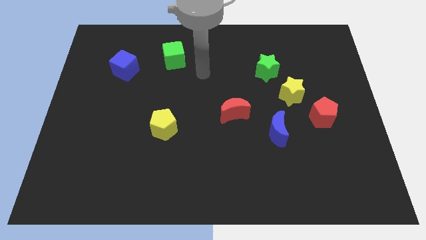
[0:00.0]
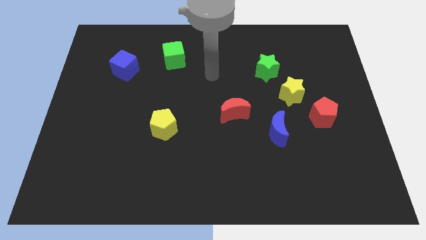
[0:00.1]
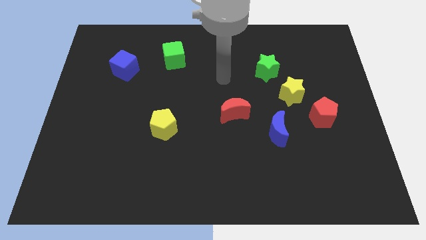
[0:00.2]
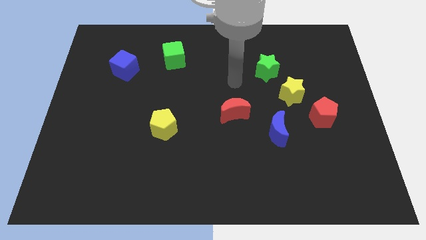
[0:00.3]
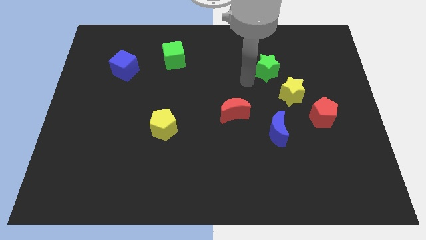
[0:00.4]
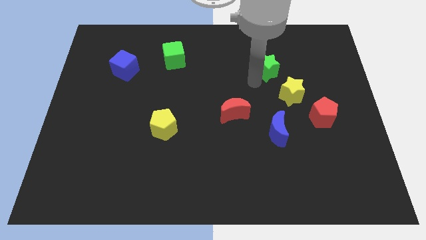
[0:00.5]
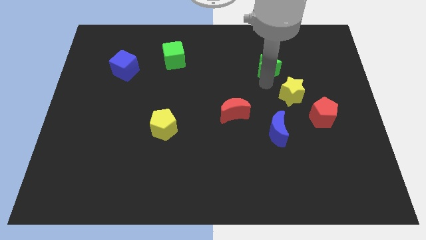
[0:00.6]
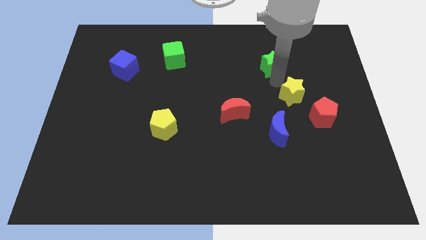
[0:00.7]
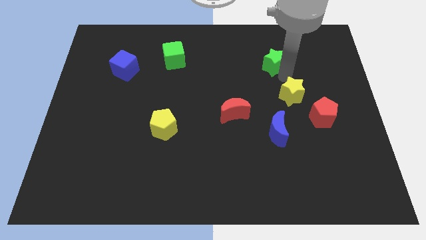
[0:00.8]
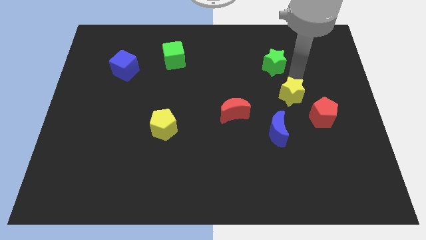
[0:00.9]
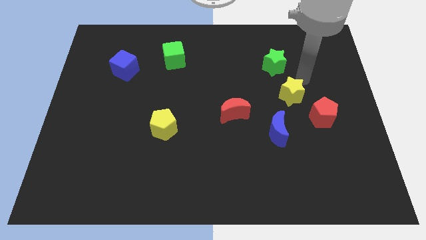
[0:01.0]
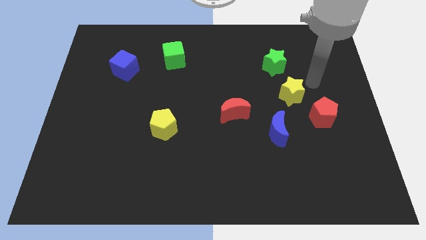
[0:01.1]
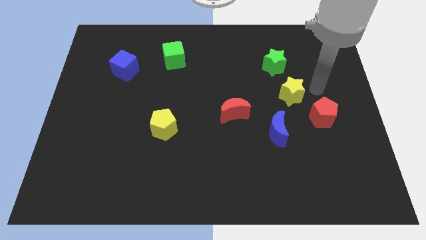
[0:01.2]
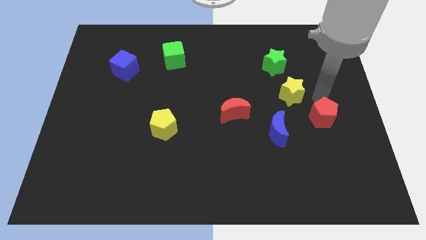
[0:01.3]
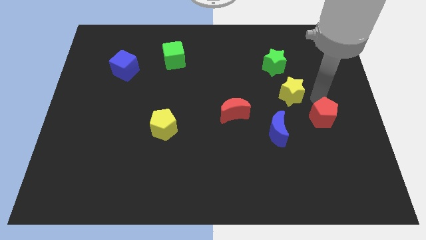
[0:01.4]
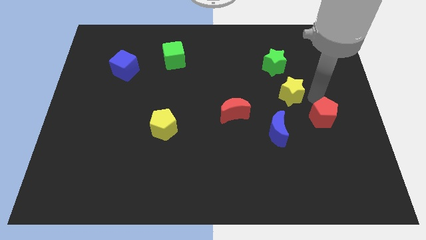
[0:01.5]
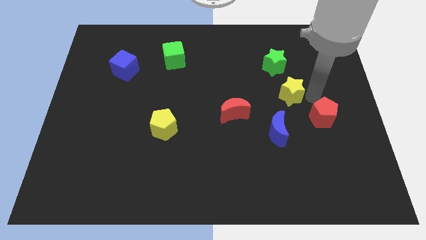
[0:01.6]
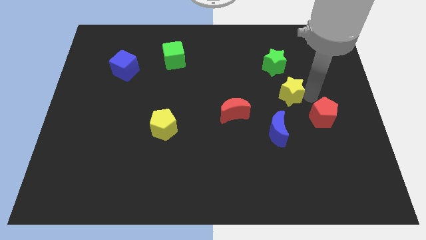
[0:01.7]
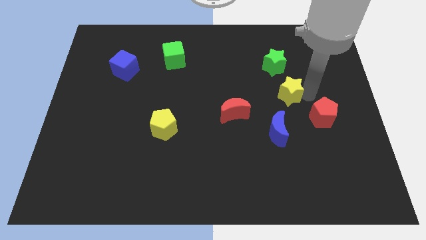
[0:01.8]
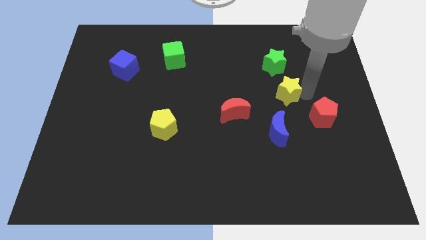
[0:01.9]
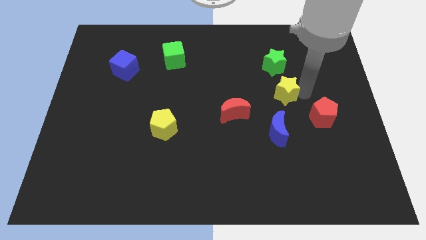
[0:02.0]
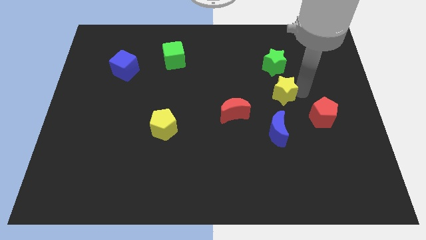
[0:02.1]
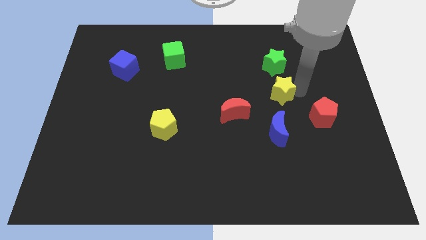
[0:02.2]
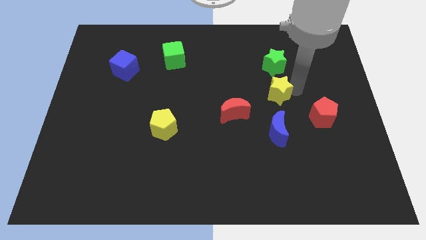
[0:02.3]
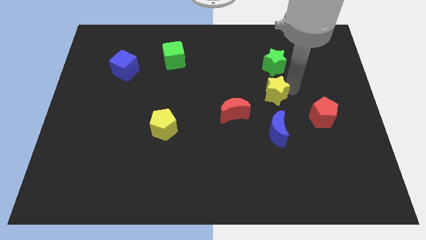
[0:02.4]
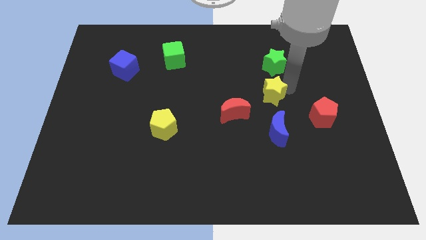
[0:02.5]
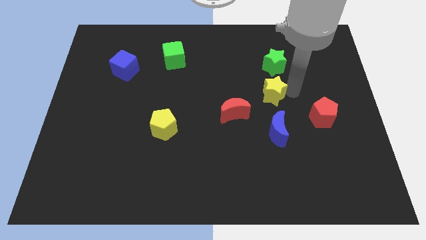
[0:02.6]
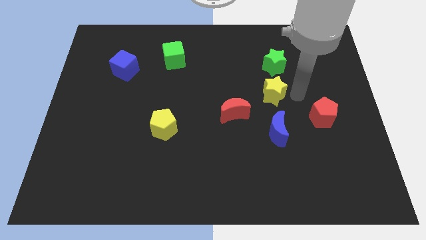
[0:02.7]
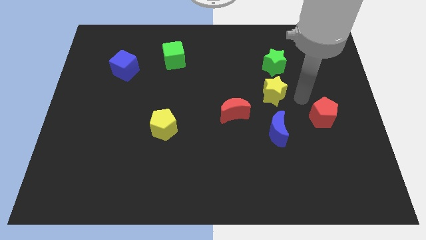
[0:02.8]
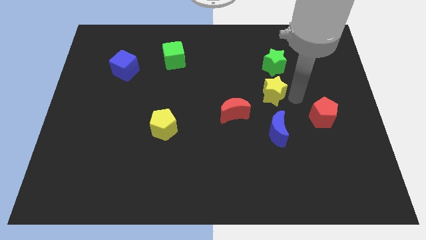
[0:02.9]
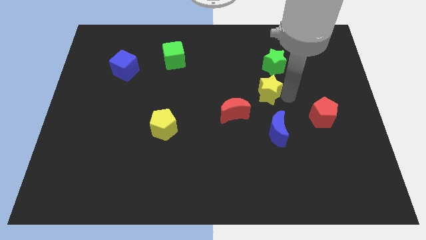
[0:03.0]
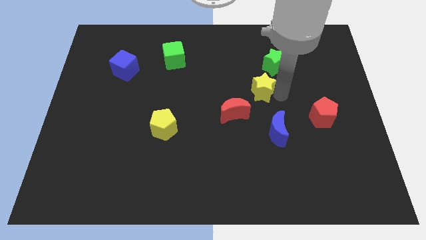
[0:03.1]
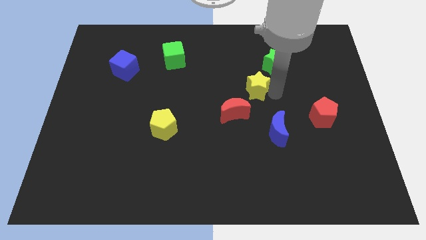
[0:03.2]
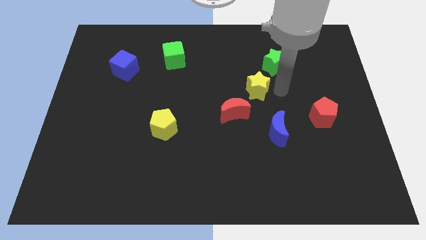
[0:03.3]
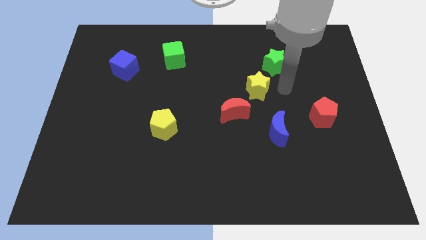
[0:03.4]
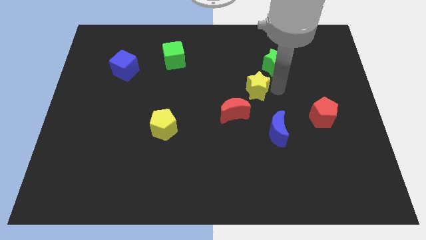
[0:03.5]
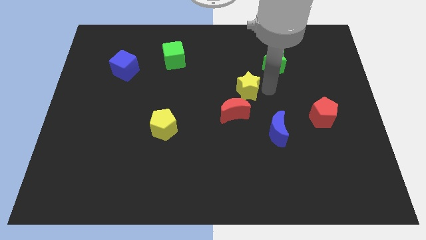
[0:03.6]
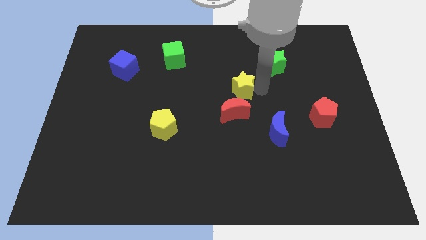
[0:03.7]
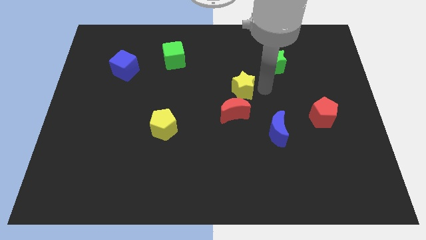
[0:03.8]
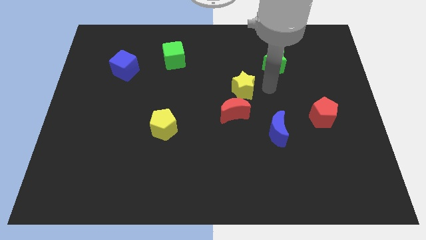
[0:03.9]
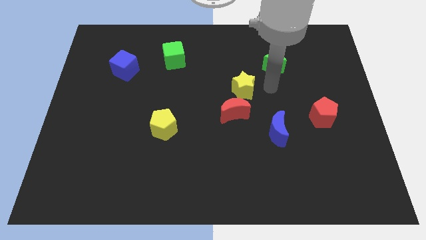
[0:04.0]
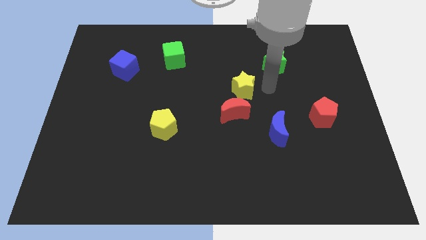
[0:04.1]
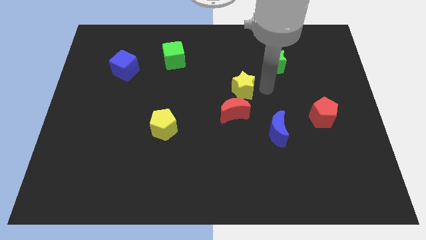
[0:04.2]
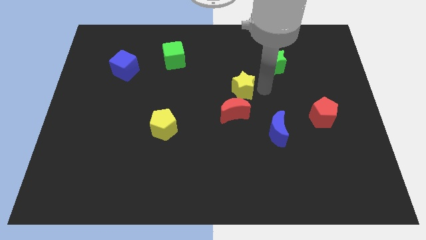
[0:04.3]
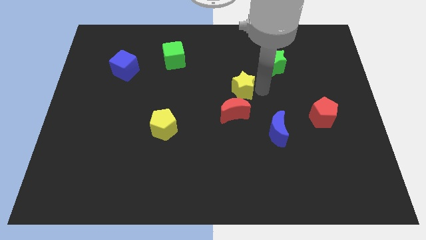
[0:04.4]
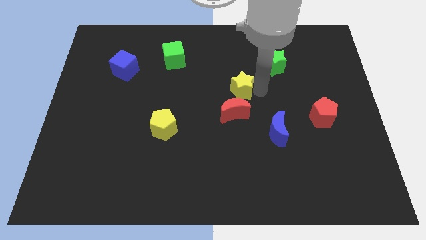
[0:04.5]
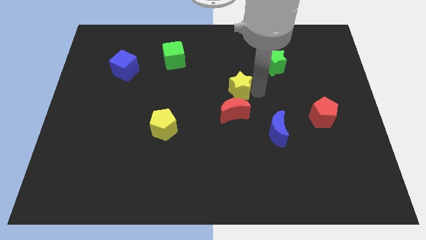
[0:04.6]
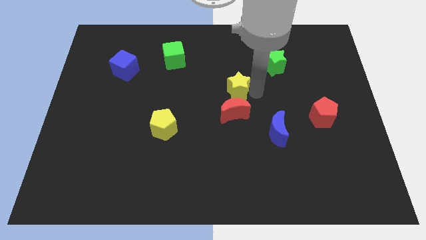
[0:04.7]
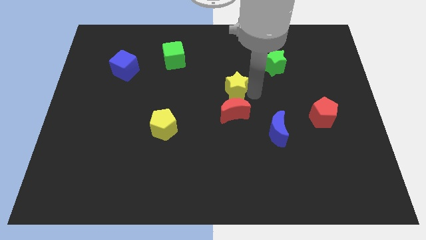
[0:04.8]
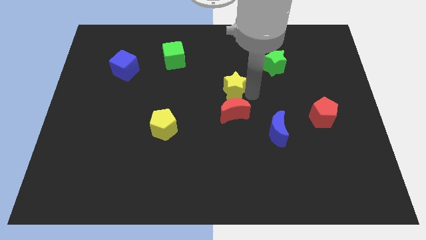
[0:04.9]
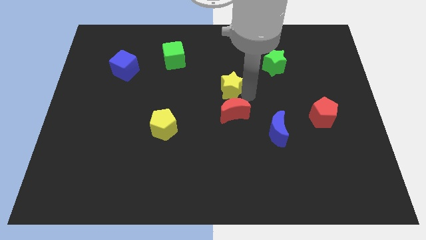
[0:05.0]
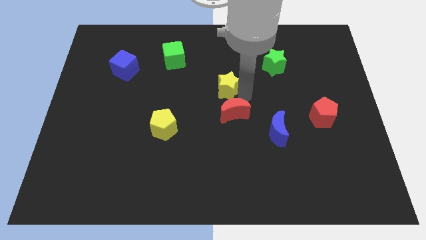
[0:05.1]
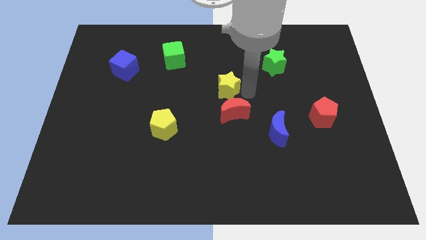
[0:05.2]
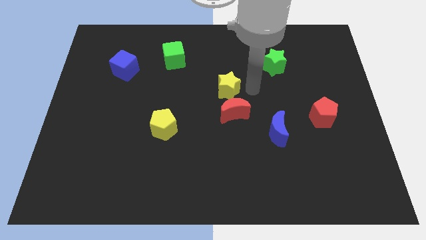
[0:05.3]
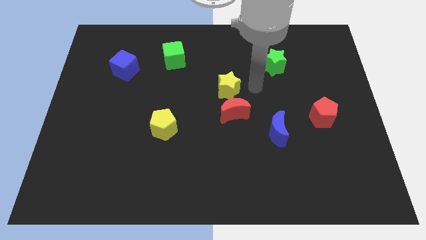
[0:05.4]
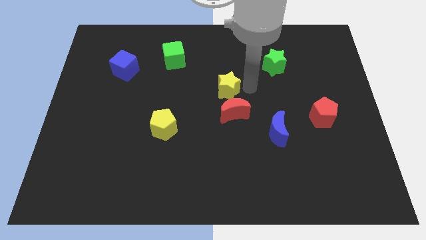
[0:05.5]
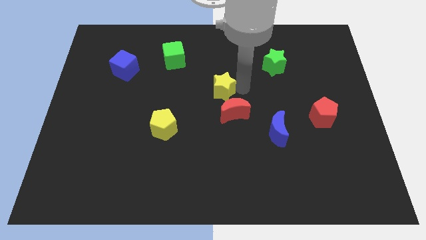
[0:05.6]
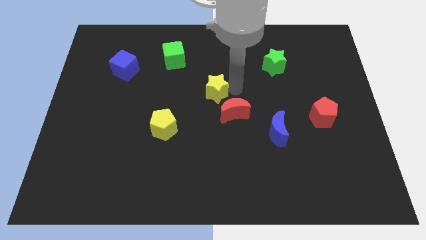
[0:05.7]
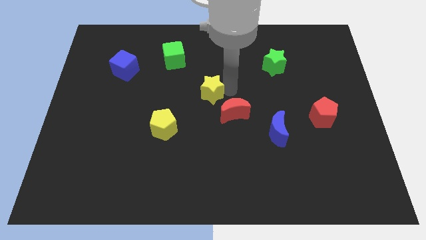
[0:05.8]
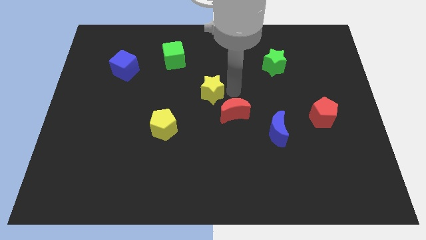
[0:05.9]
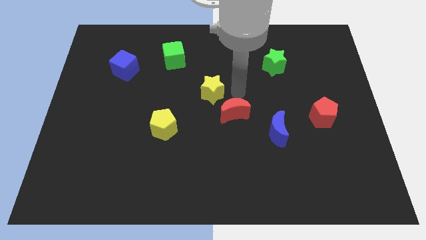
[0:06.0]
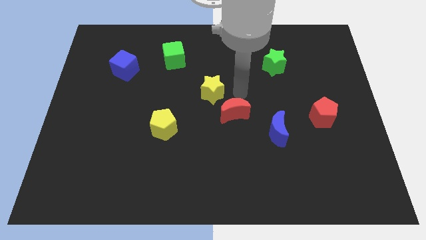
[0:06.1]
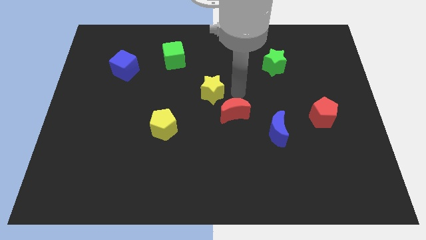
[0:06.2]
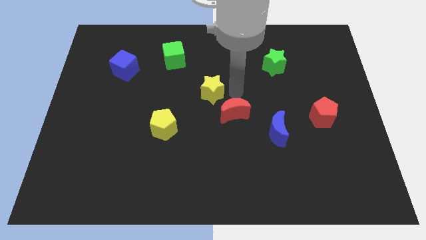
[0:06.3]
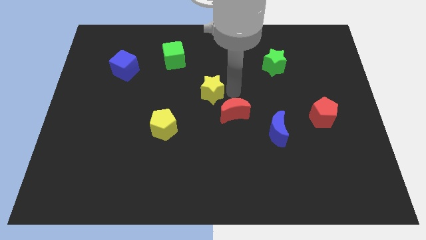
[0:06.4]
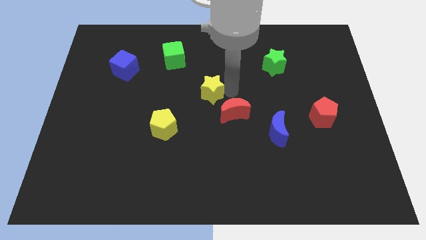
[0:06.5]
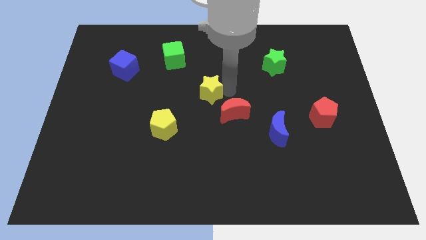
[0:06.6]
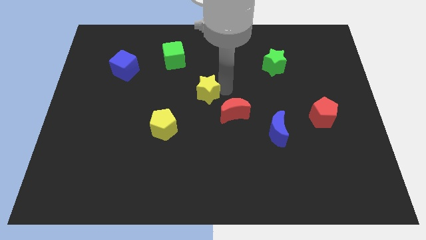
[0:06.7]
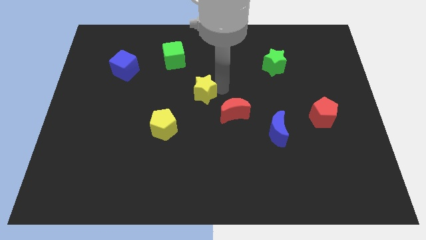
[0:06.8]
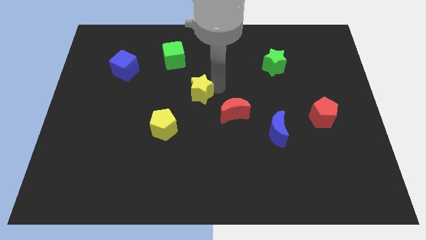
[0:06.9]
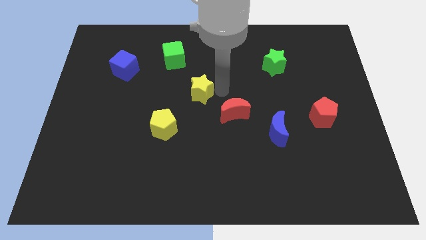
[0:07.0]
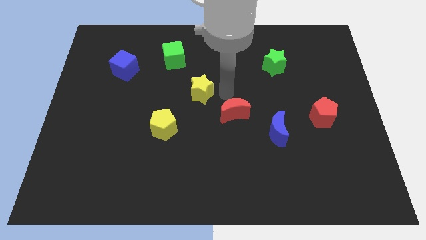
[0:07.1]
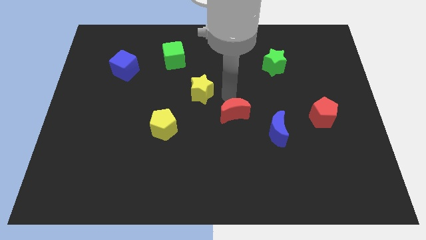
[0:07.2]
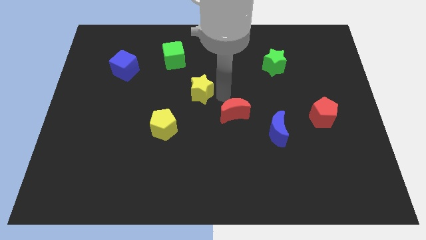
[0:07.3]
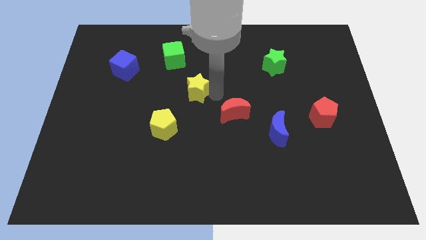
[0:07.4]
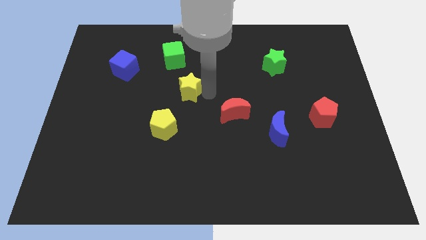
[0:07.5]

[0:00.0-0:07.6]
put the yellow star to the bottom side of the green cube
